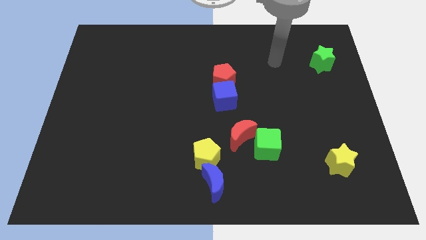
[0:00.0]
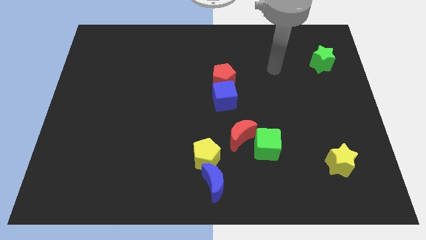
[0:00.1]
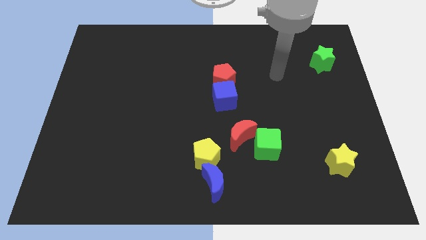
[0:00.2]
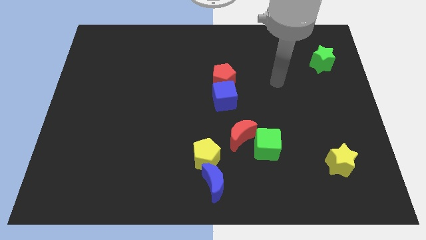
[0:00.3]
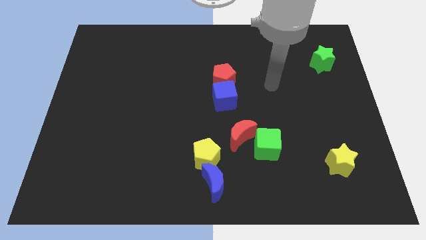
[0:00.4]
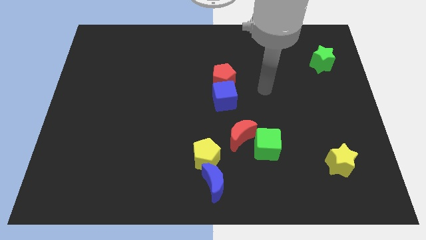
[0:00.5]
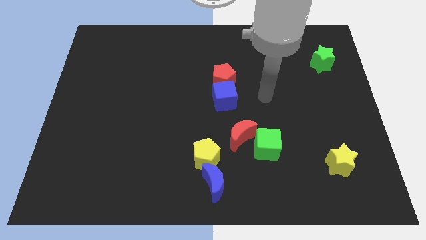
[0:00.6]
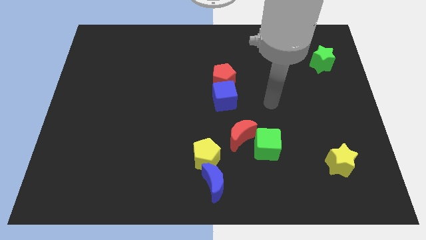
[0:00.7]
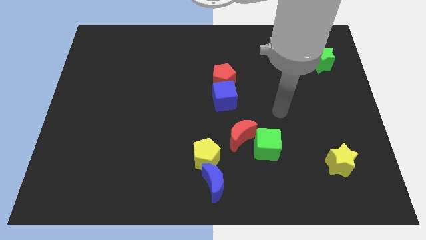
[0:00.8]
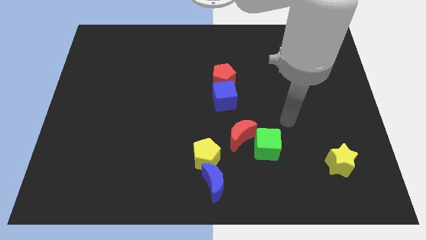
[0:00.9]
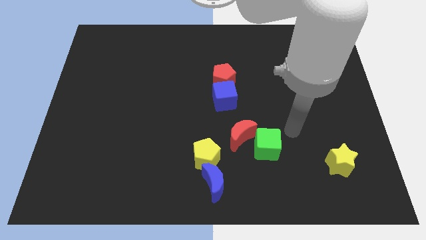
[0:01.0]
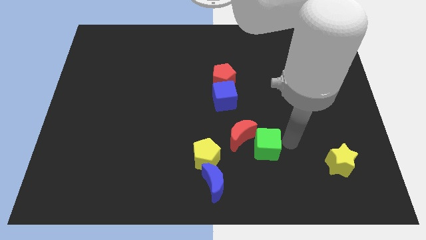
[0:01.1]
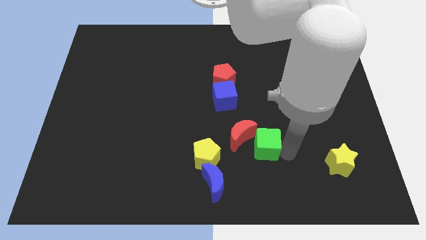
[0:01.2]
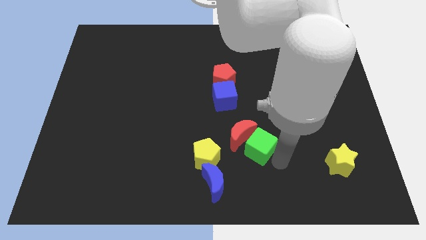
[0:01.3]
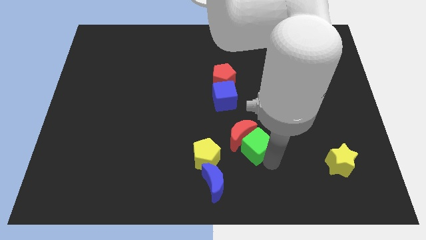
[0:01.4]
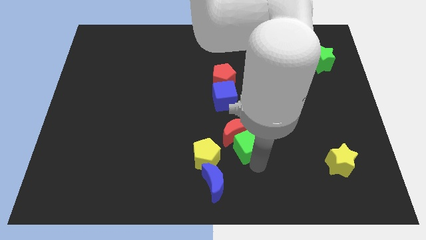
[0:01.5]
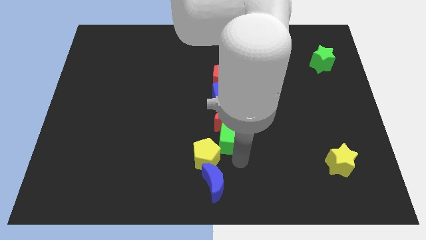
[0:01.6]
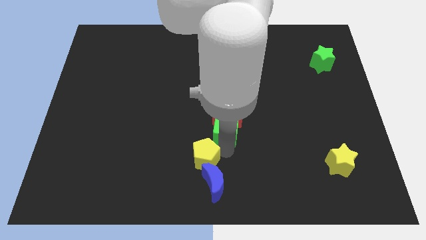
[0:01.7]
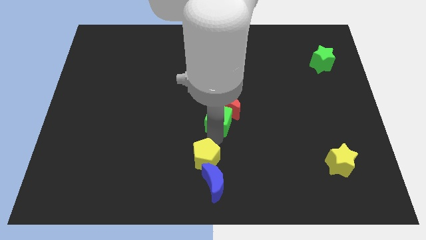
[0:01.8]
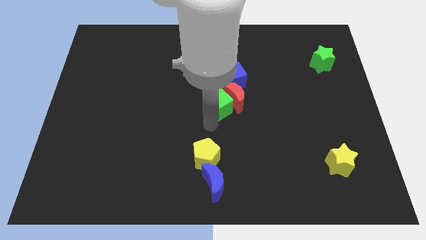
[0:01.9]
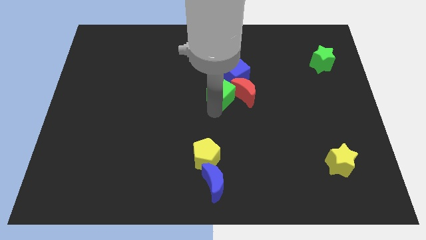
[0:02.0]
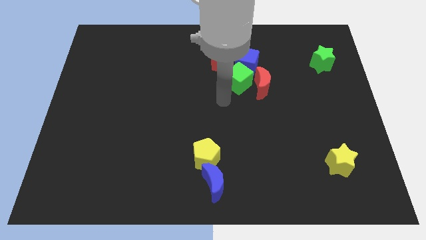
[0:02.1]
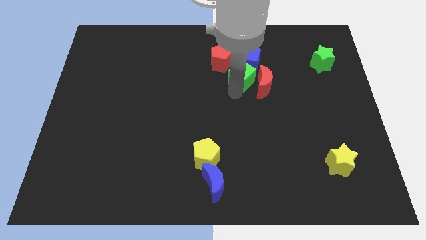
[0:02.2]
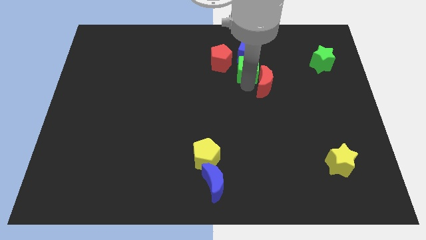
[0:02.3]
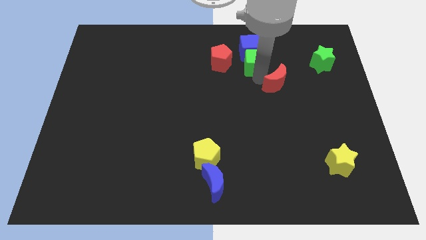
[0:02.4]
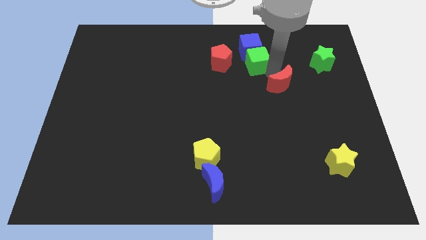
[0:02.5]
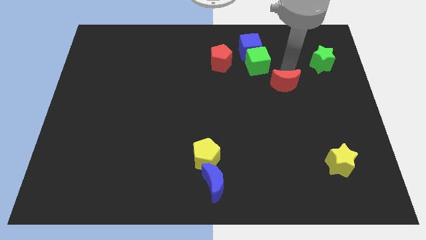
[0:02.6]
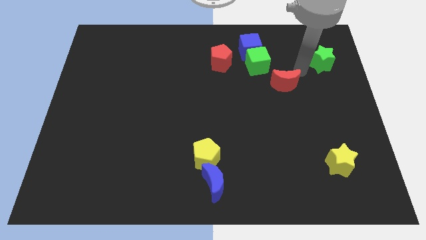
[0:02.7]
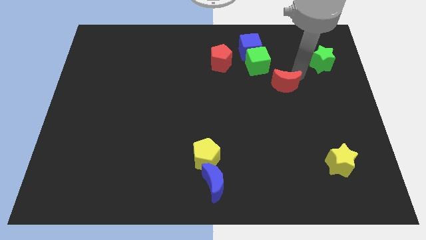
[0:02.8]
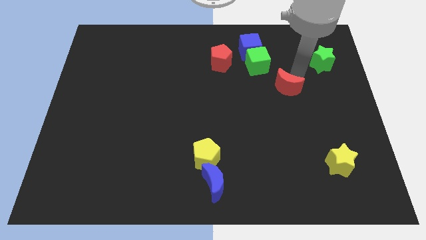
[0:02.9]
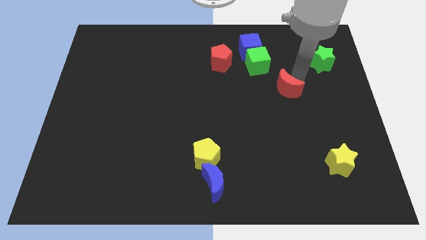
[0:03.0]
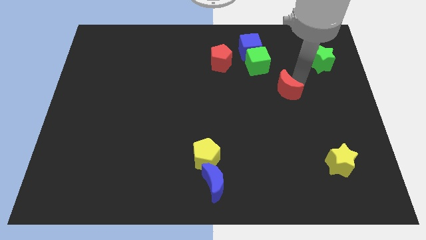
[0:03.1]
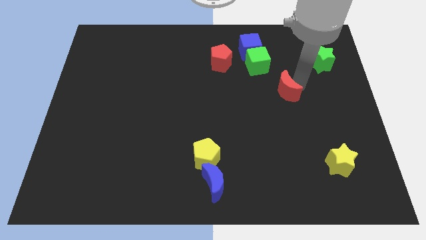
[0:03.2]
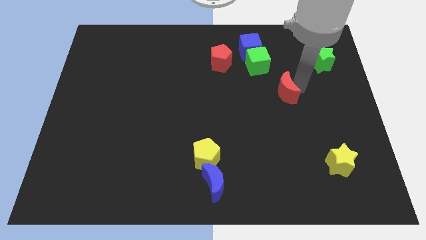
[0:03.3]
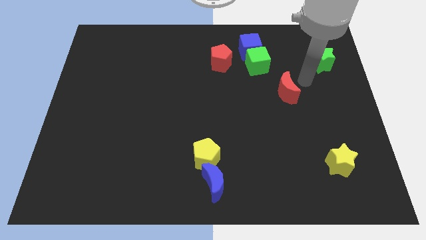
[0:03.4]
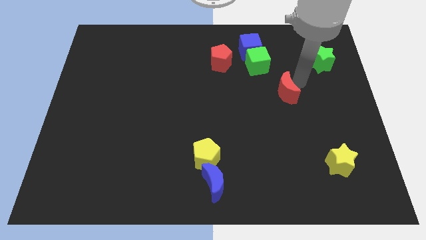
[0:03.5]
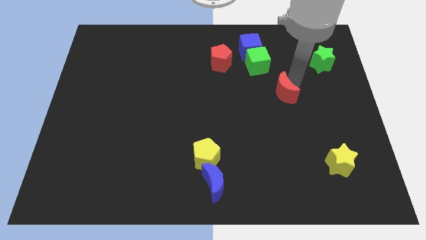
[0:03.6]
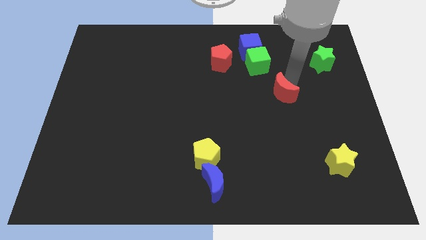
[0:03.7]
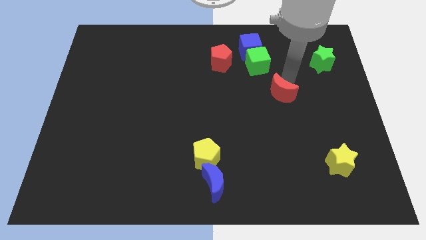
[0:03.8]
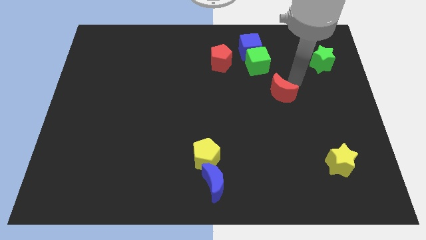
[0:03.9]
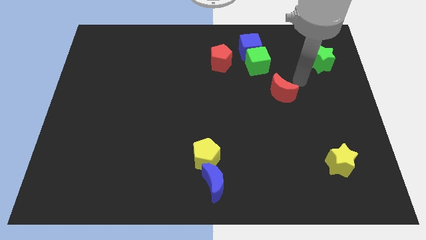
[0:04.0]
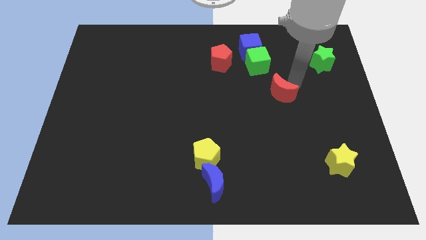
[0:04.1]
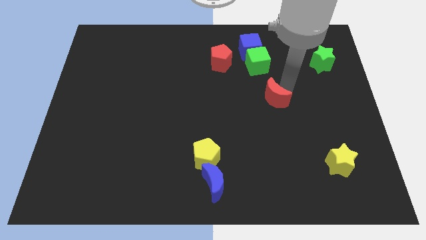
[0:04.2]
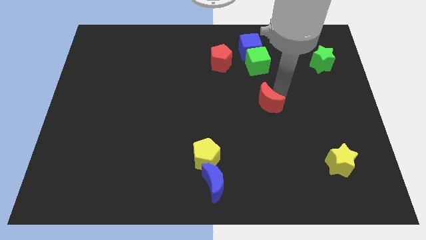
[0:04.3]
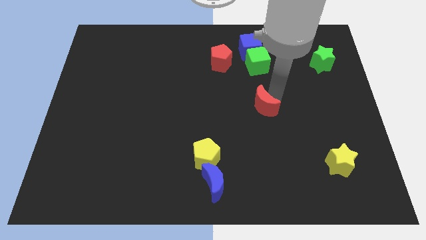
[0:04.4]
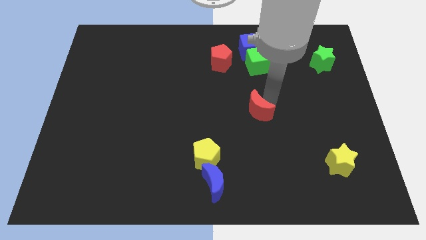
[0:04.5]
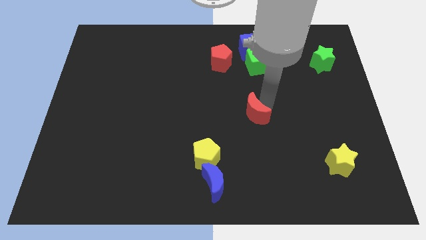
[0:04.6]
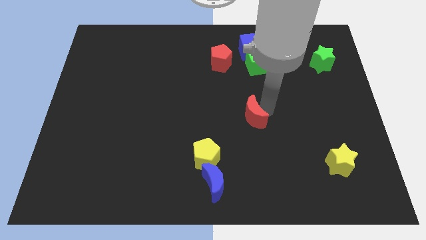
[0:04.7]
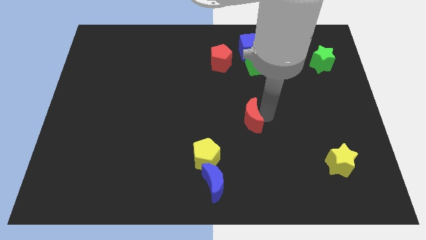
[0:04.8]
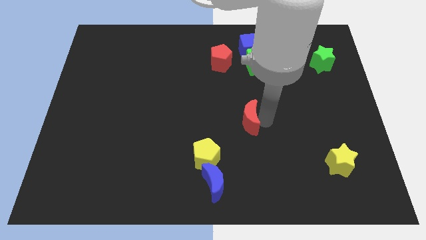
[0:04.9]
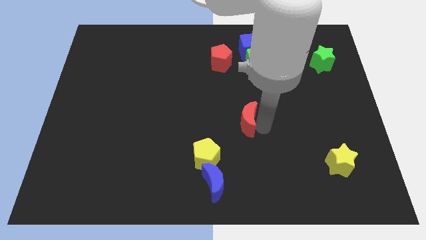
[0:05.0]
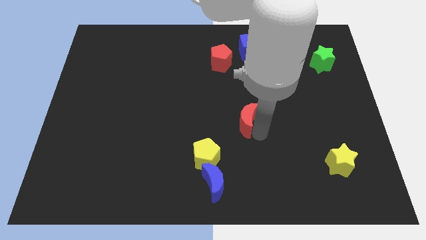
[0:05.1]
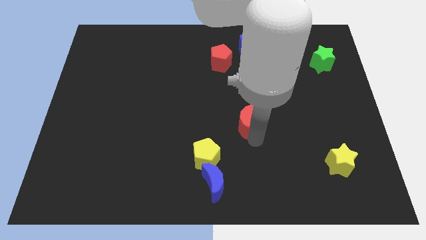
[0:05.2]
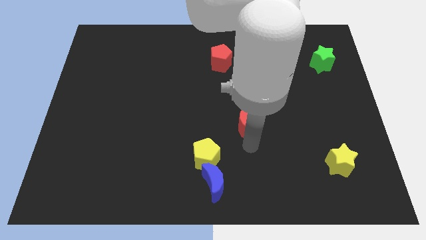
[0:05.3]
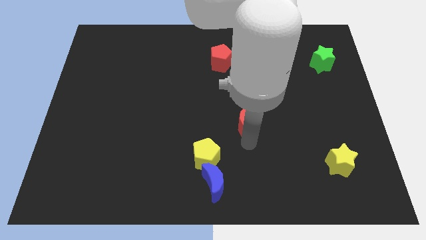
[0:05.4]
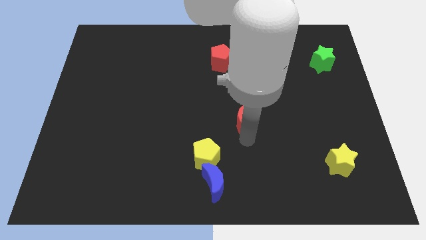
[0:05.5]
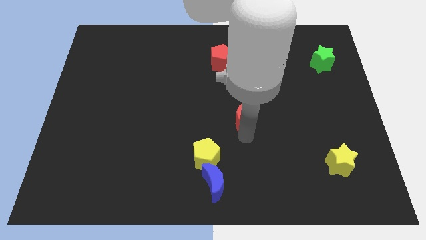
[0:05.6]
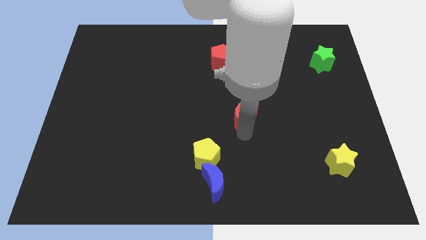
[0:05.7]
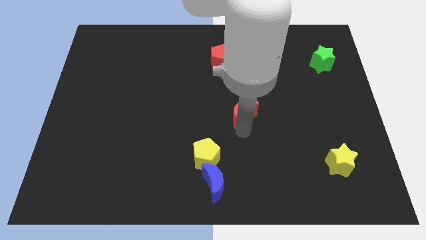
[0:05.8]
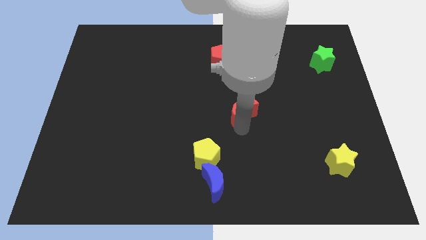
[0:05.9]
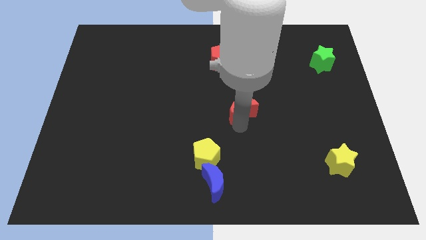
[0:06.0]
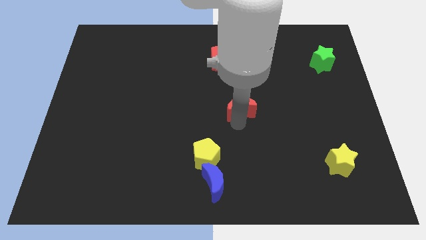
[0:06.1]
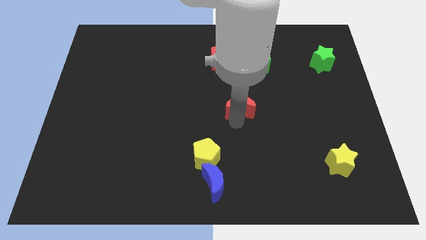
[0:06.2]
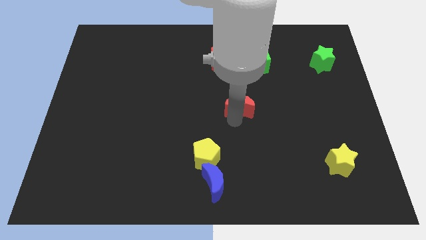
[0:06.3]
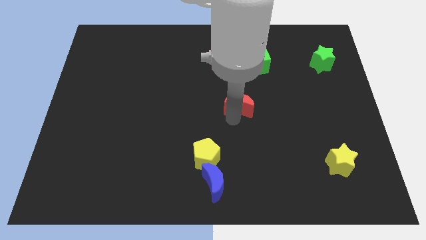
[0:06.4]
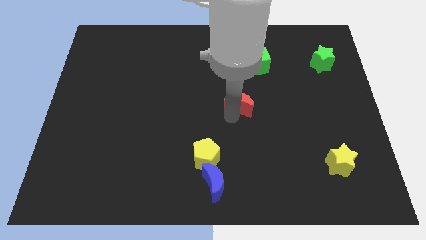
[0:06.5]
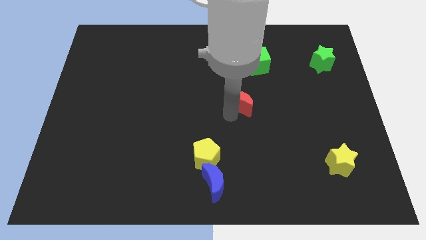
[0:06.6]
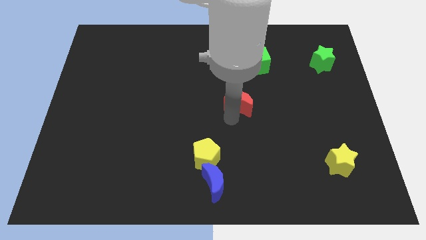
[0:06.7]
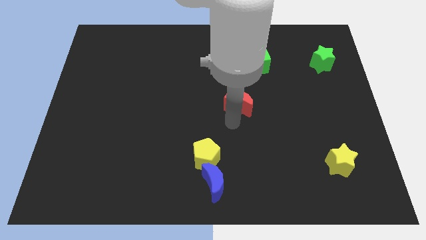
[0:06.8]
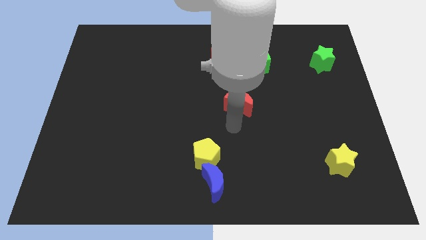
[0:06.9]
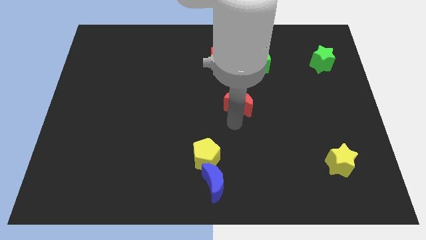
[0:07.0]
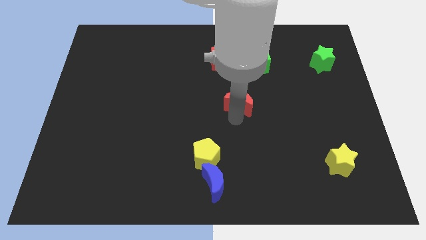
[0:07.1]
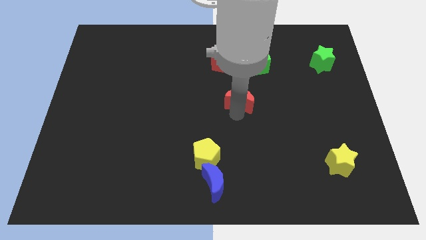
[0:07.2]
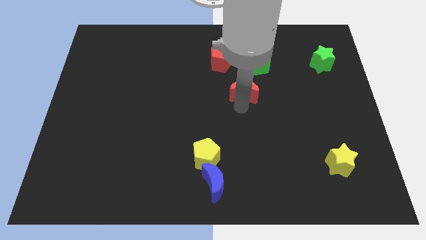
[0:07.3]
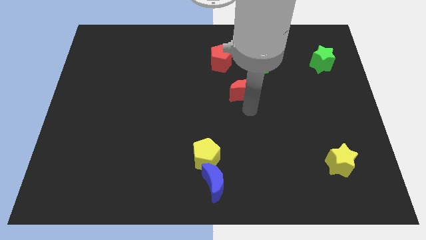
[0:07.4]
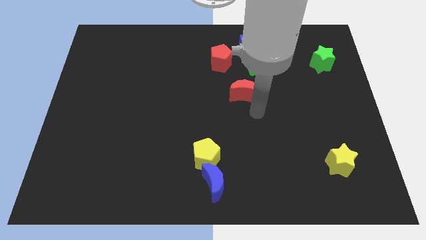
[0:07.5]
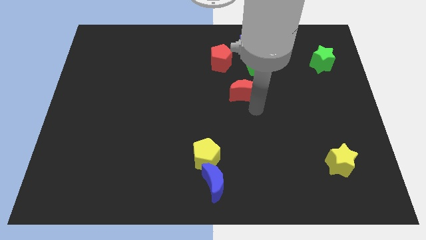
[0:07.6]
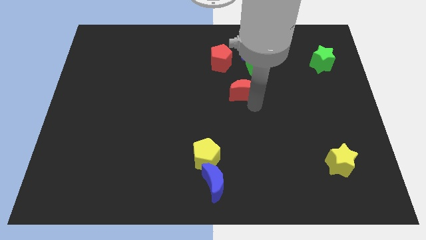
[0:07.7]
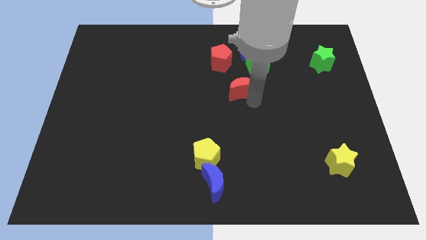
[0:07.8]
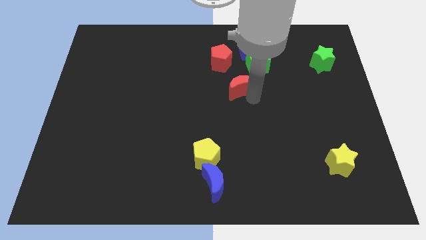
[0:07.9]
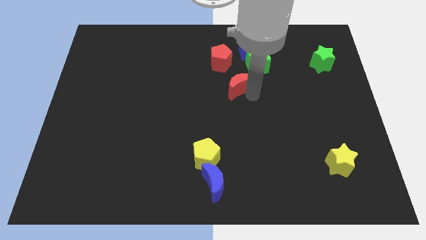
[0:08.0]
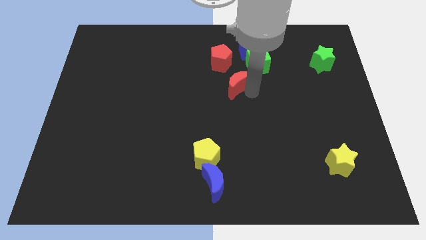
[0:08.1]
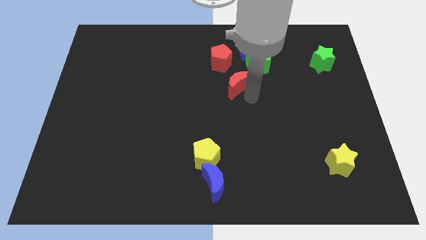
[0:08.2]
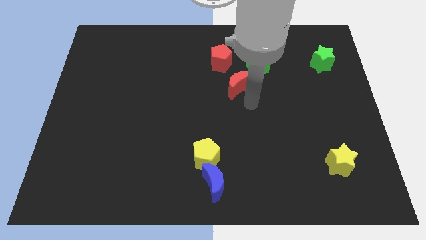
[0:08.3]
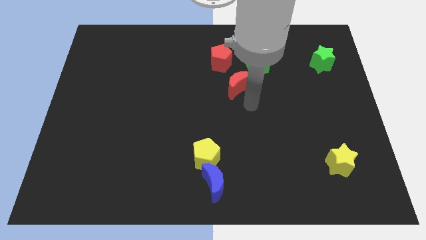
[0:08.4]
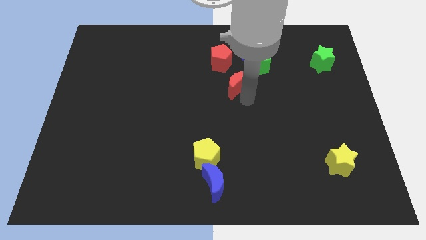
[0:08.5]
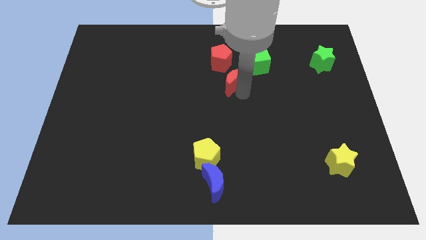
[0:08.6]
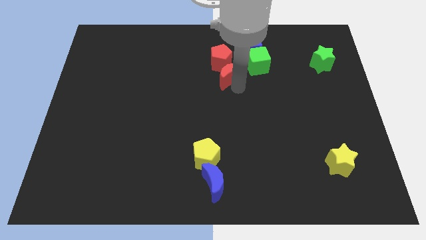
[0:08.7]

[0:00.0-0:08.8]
put the red moon close to the red pentagon
